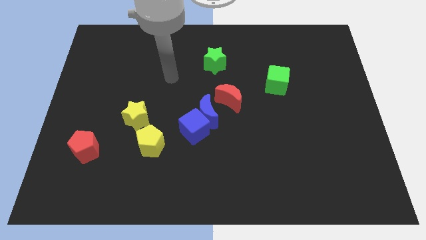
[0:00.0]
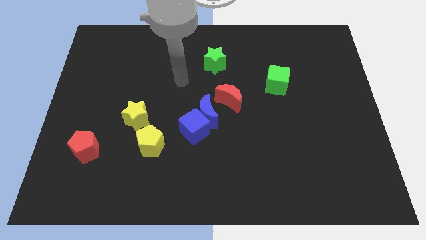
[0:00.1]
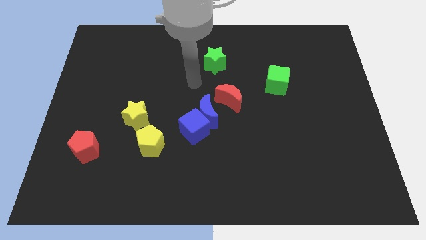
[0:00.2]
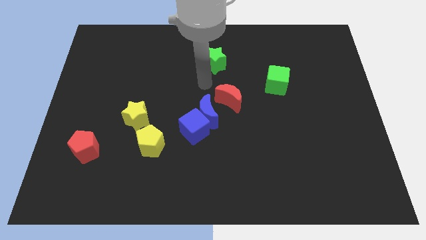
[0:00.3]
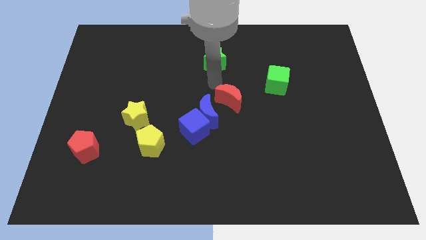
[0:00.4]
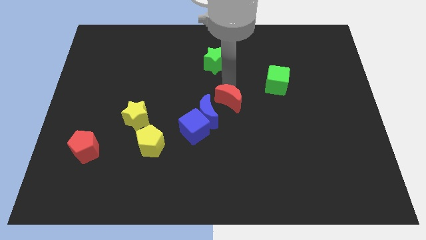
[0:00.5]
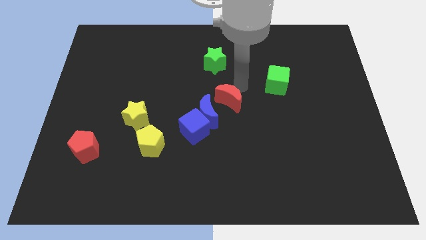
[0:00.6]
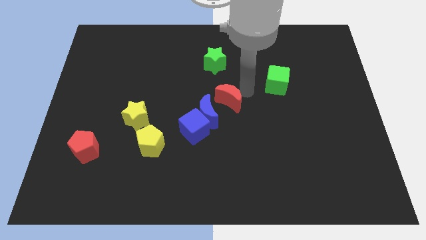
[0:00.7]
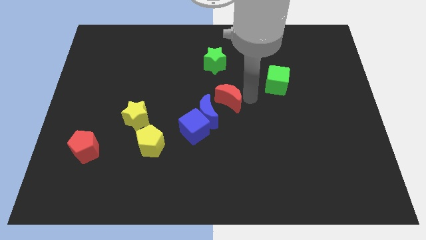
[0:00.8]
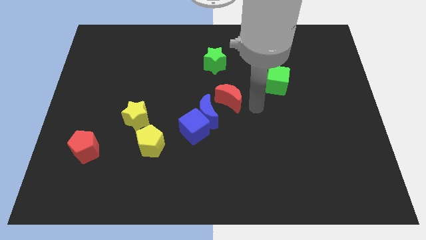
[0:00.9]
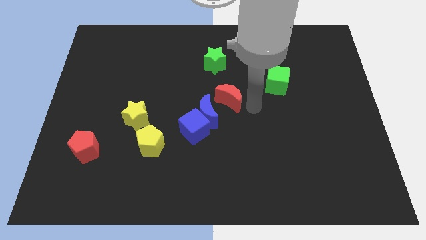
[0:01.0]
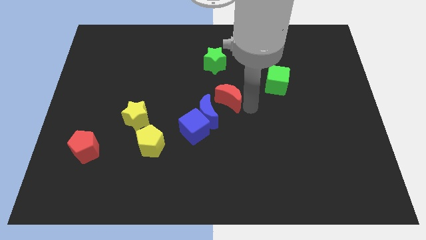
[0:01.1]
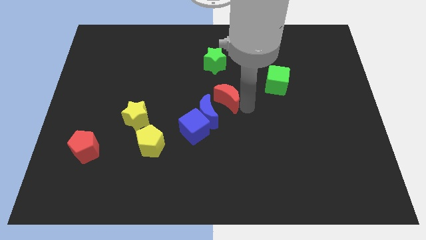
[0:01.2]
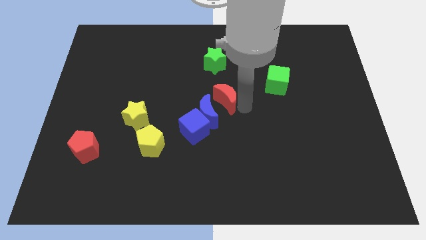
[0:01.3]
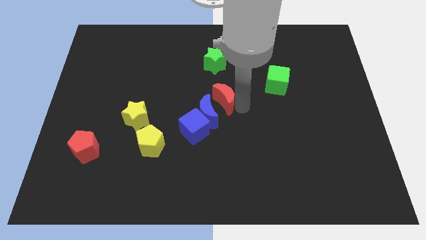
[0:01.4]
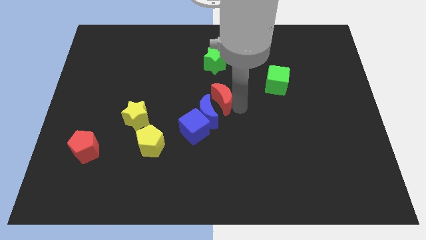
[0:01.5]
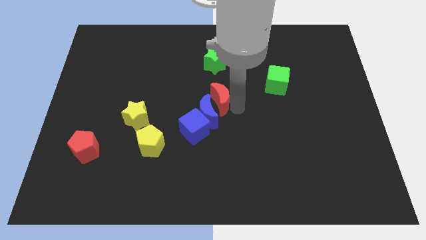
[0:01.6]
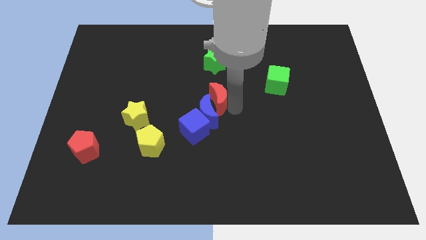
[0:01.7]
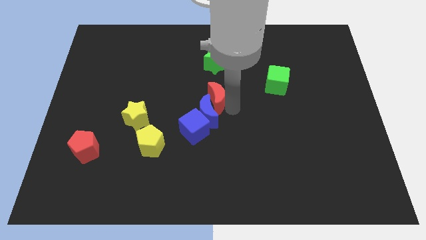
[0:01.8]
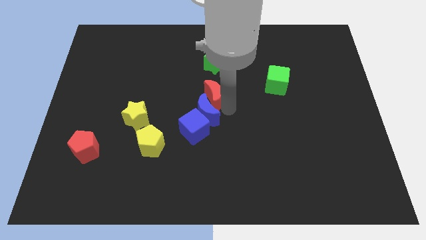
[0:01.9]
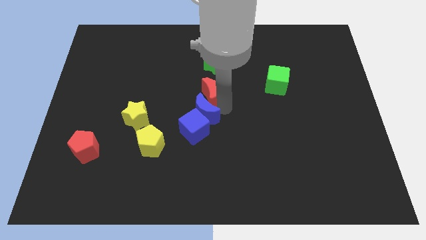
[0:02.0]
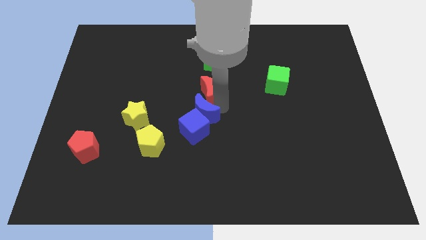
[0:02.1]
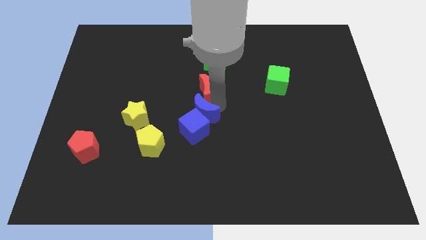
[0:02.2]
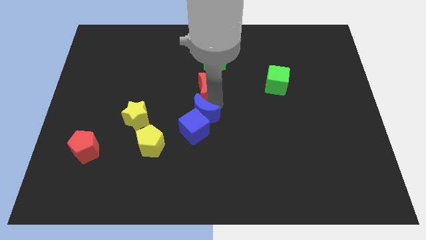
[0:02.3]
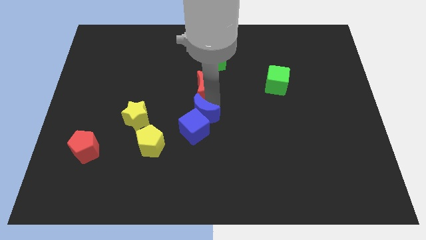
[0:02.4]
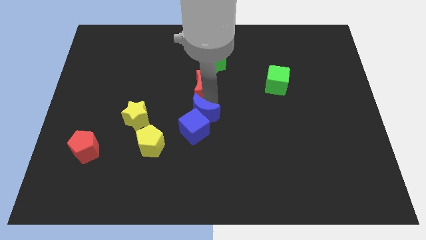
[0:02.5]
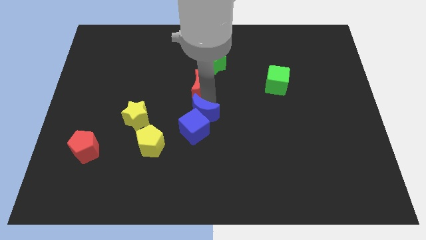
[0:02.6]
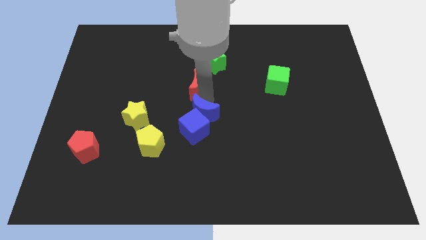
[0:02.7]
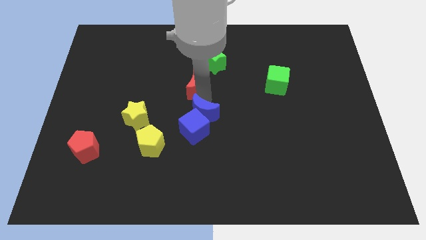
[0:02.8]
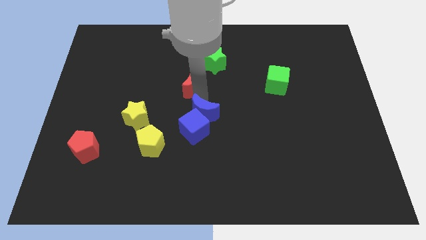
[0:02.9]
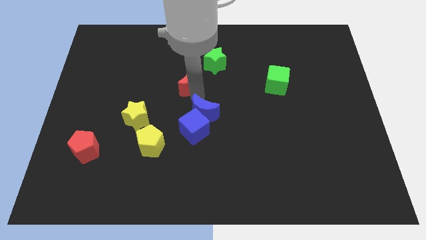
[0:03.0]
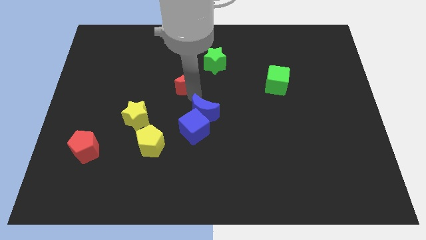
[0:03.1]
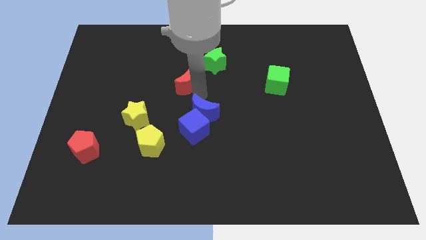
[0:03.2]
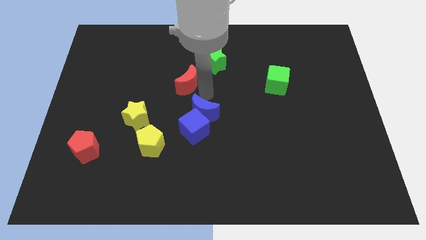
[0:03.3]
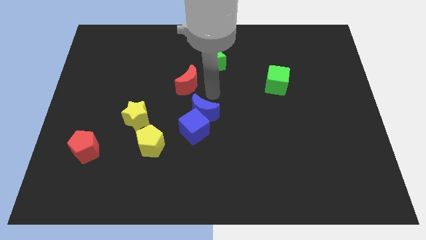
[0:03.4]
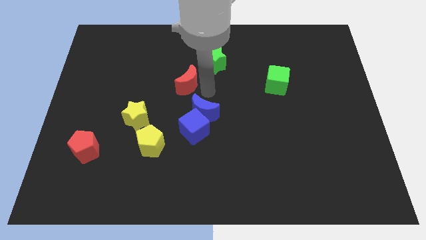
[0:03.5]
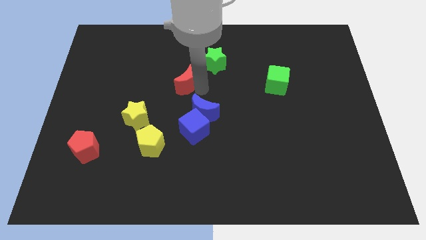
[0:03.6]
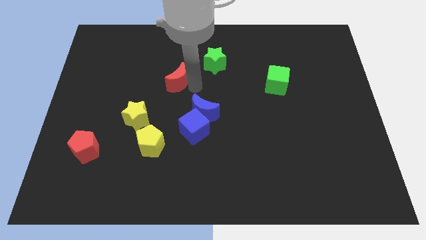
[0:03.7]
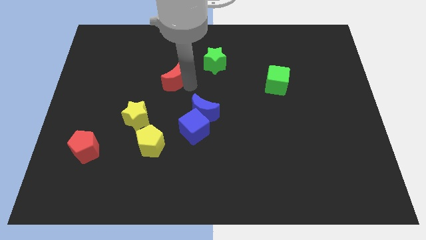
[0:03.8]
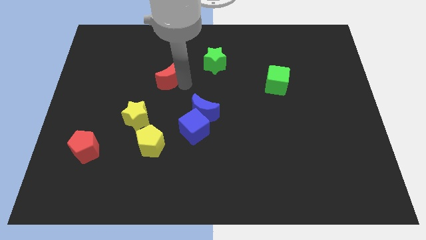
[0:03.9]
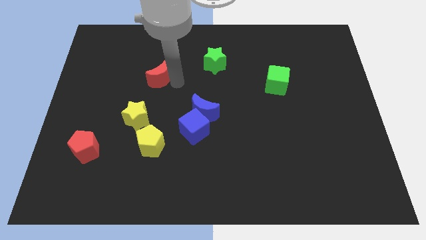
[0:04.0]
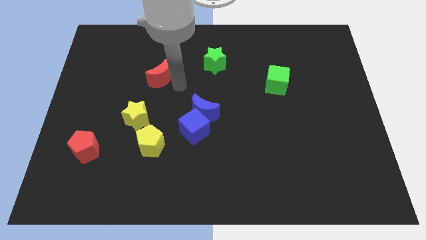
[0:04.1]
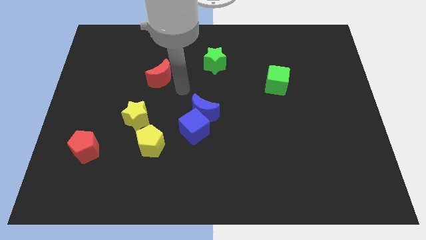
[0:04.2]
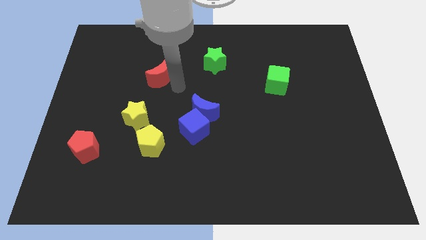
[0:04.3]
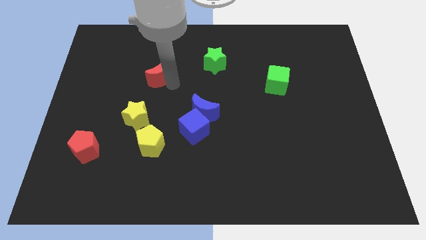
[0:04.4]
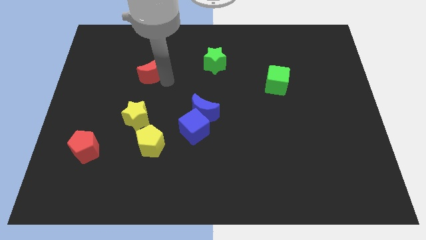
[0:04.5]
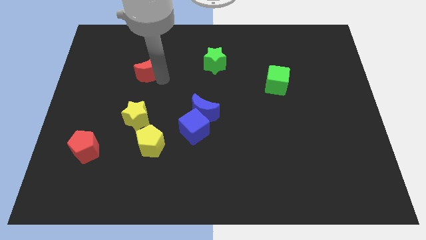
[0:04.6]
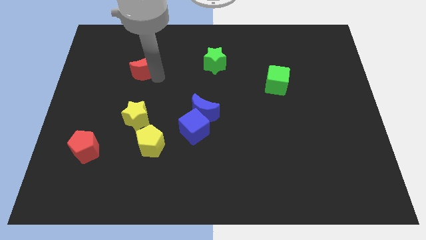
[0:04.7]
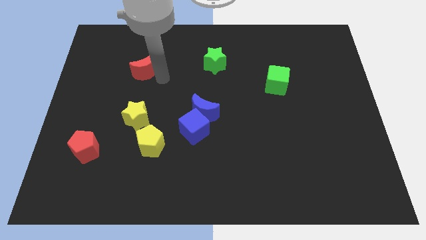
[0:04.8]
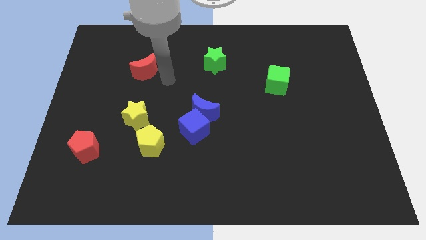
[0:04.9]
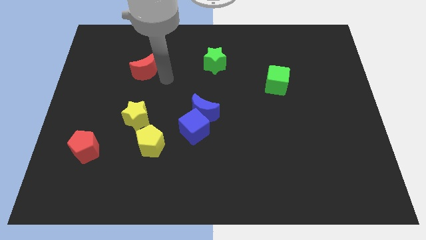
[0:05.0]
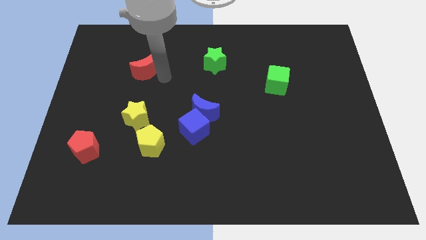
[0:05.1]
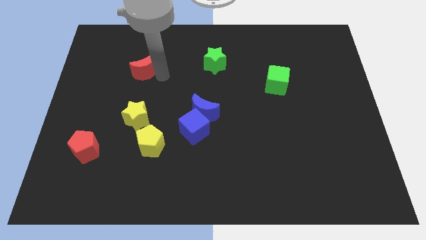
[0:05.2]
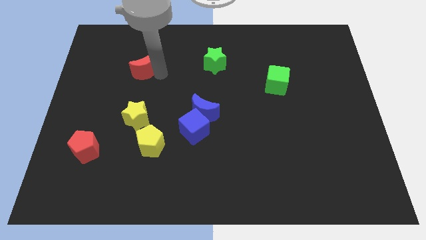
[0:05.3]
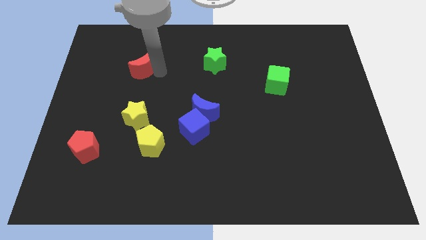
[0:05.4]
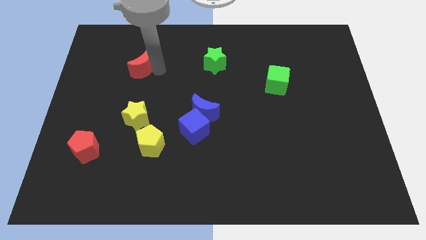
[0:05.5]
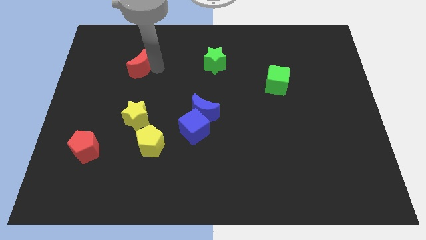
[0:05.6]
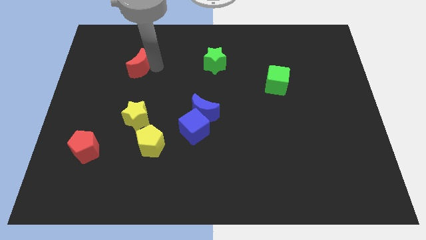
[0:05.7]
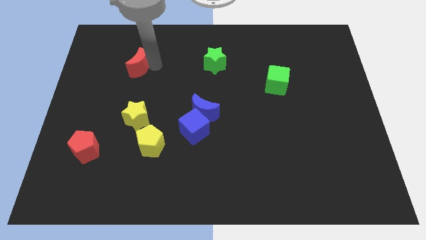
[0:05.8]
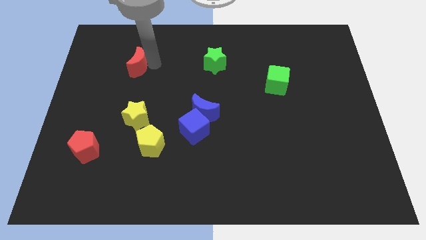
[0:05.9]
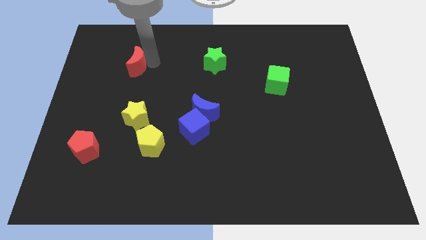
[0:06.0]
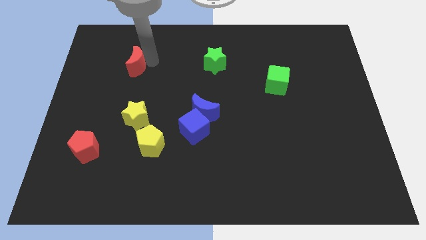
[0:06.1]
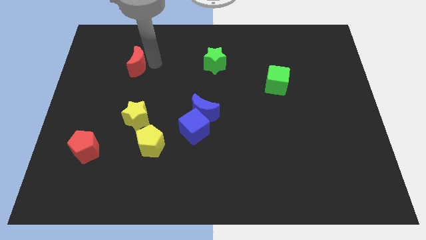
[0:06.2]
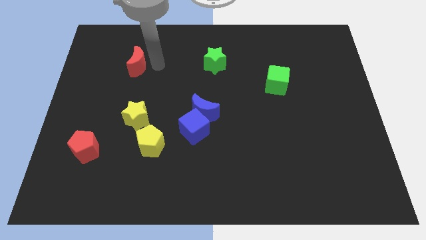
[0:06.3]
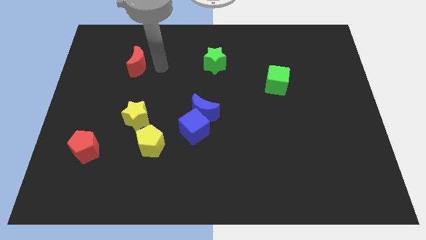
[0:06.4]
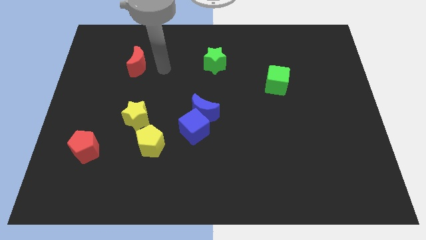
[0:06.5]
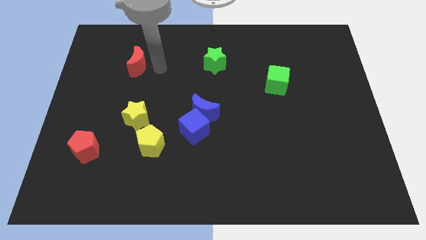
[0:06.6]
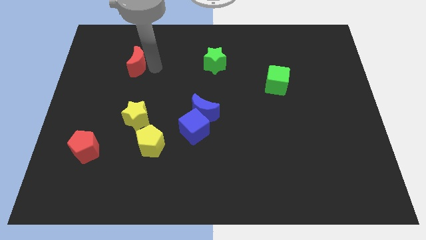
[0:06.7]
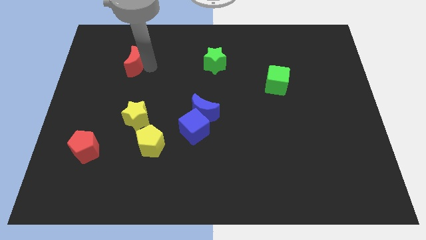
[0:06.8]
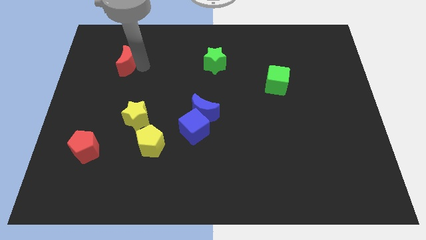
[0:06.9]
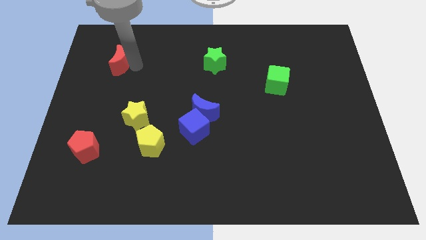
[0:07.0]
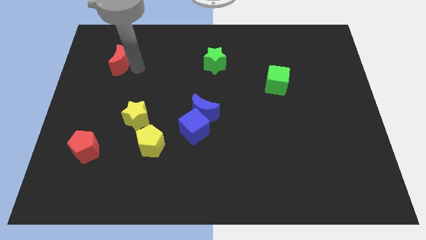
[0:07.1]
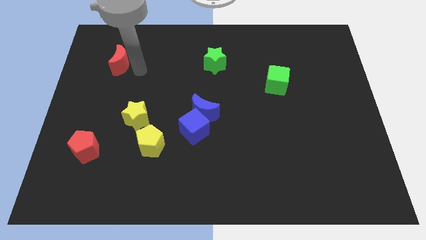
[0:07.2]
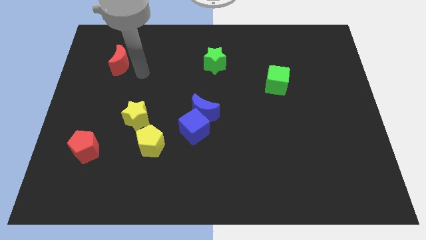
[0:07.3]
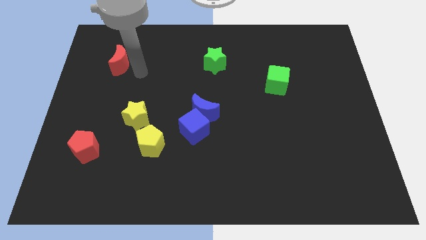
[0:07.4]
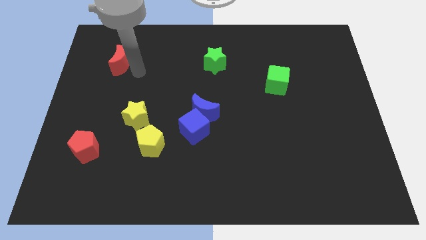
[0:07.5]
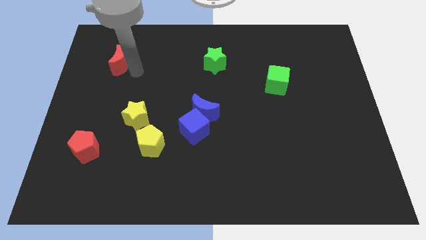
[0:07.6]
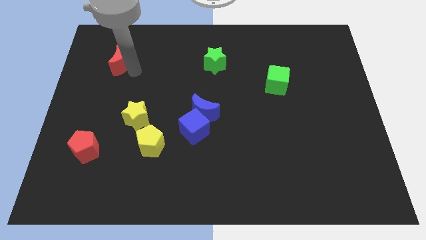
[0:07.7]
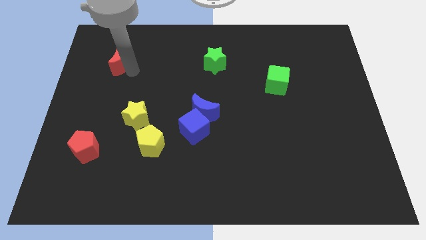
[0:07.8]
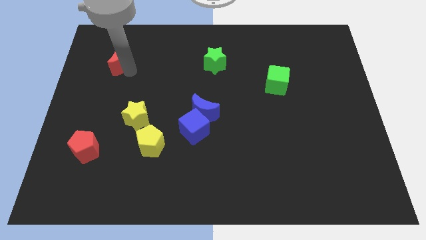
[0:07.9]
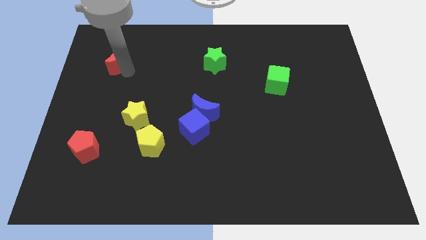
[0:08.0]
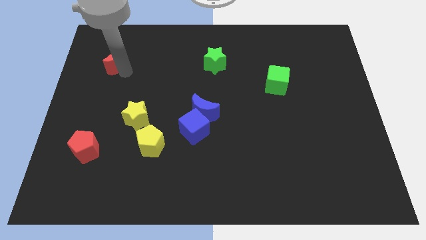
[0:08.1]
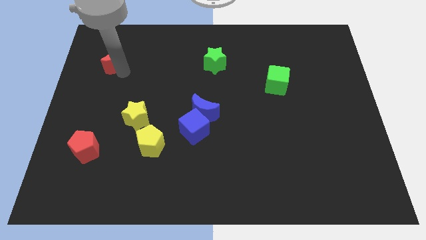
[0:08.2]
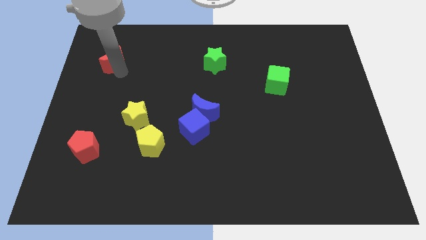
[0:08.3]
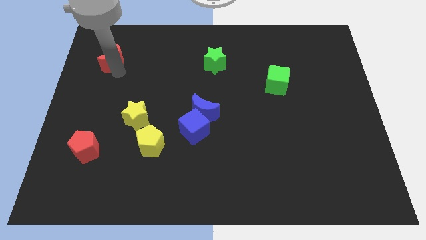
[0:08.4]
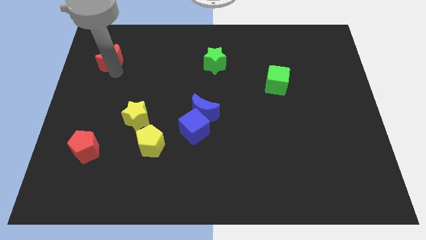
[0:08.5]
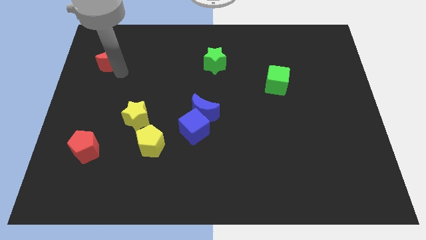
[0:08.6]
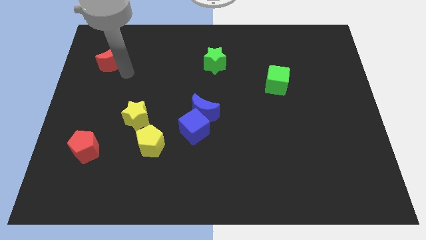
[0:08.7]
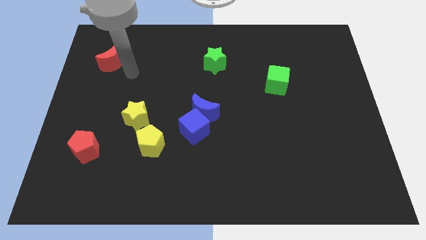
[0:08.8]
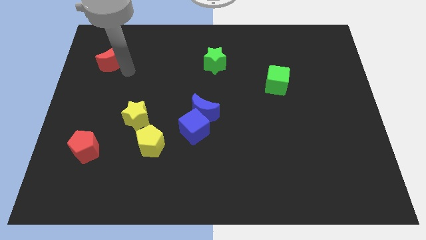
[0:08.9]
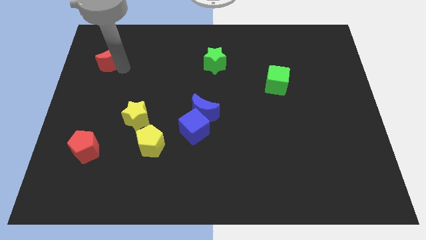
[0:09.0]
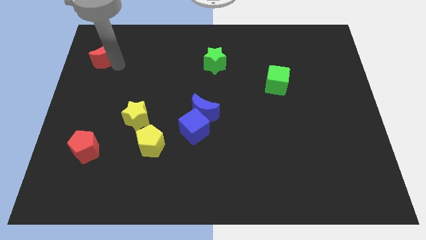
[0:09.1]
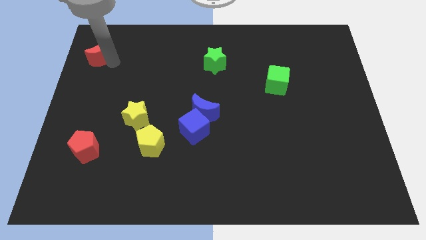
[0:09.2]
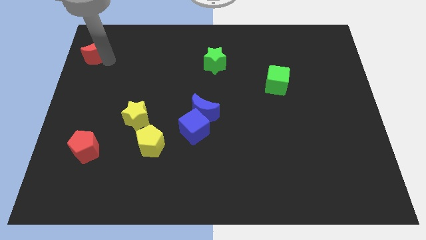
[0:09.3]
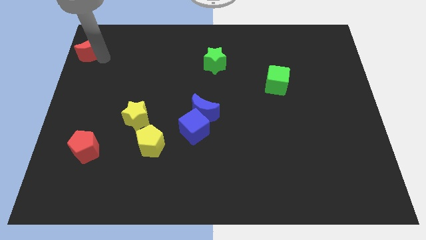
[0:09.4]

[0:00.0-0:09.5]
move the red moon to the top left
